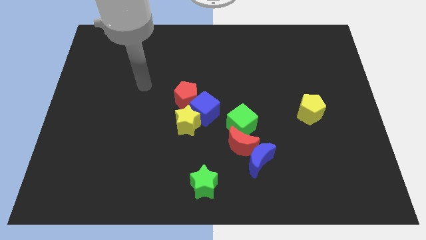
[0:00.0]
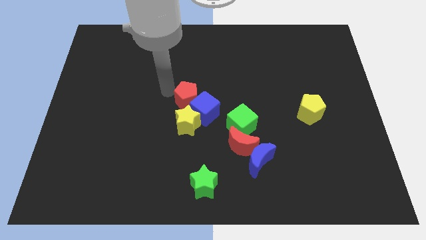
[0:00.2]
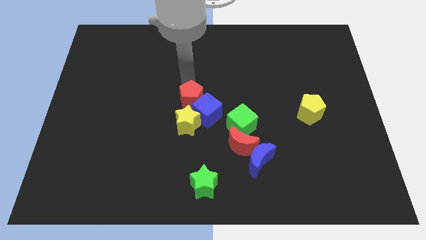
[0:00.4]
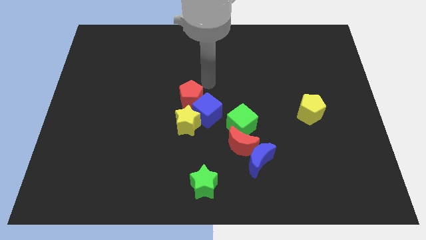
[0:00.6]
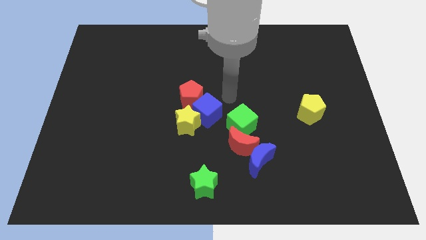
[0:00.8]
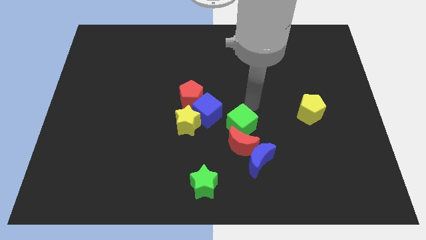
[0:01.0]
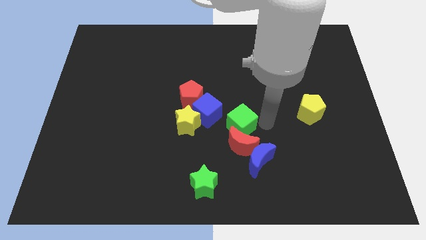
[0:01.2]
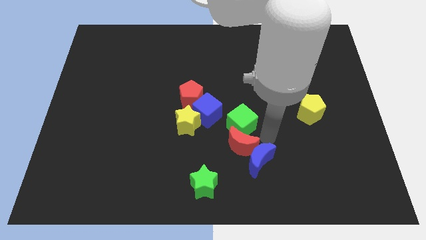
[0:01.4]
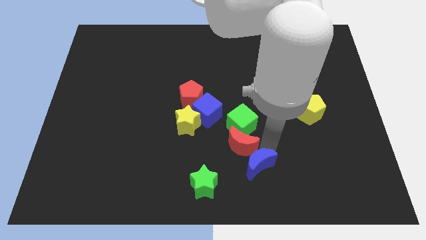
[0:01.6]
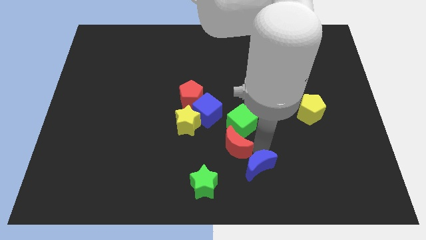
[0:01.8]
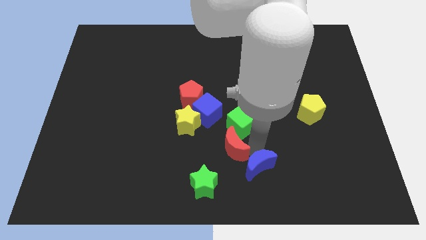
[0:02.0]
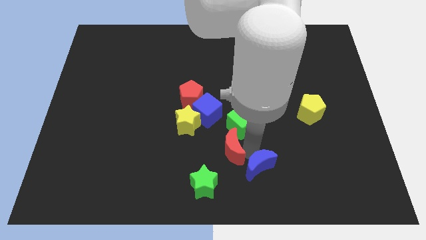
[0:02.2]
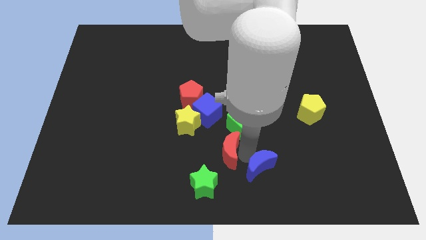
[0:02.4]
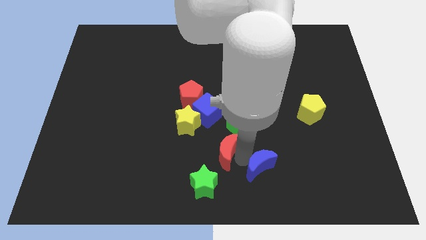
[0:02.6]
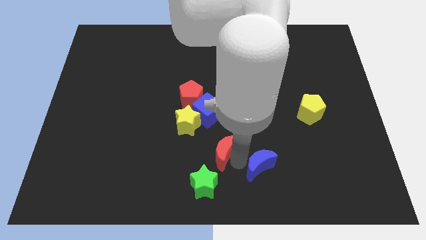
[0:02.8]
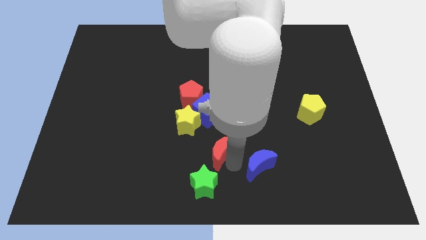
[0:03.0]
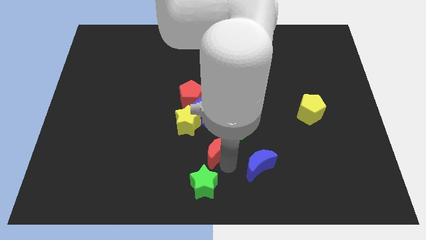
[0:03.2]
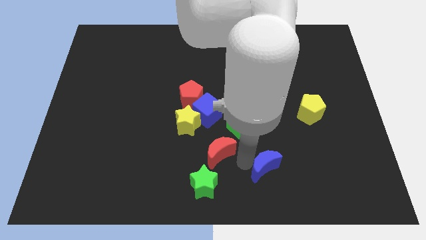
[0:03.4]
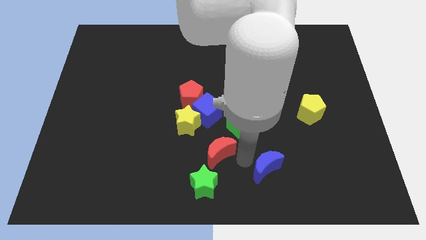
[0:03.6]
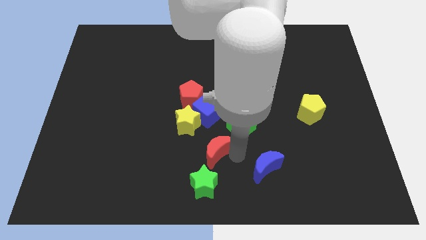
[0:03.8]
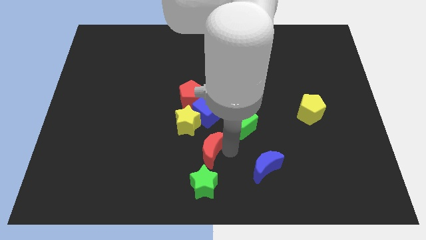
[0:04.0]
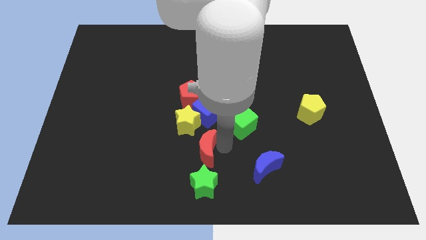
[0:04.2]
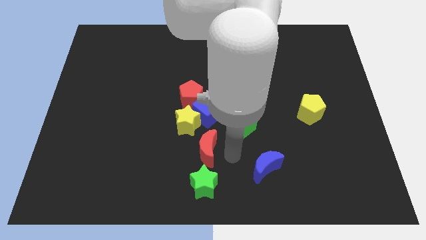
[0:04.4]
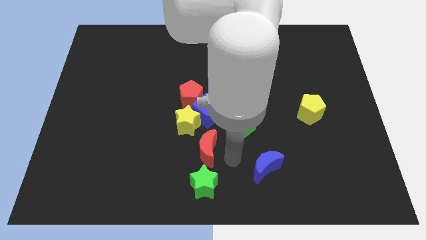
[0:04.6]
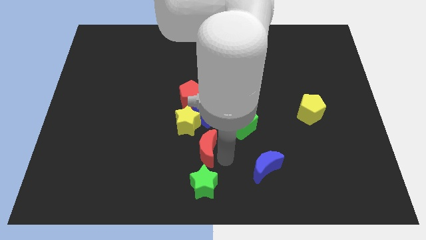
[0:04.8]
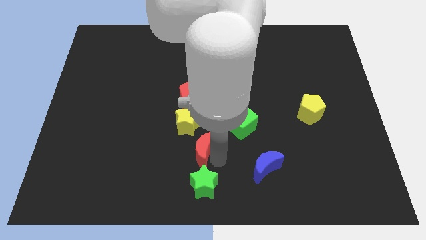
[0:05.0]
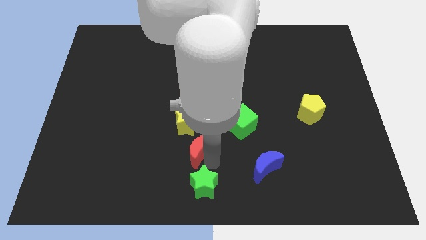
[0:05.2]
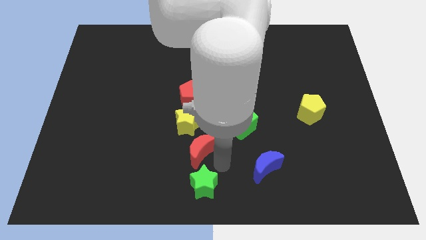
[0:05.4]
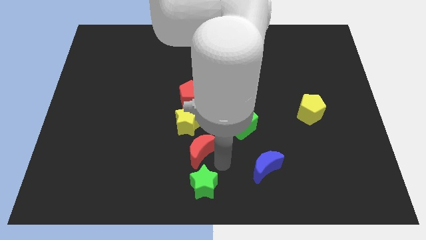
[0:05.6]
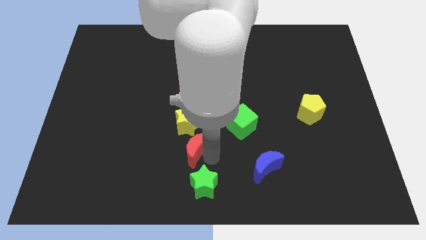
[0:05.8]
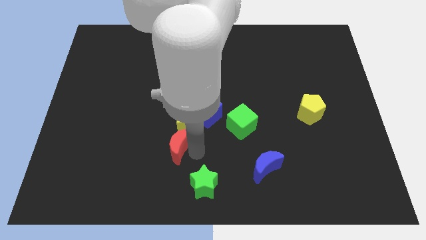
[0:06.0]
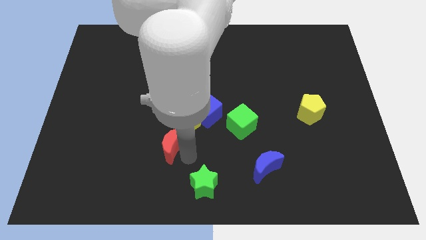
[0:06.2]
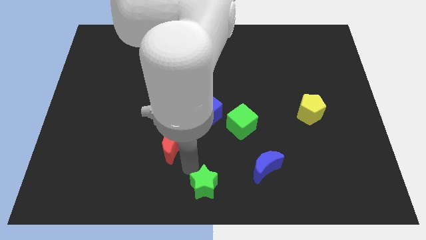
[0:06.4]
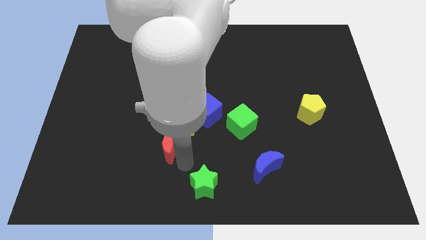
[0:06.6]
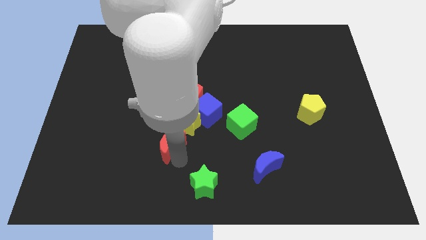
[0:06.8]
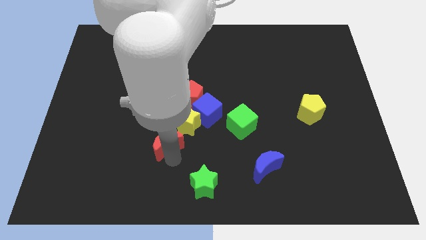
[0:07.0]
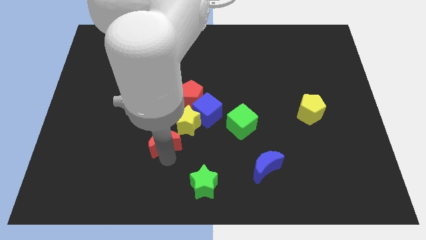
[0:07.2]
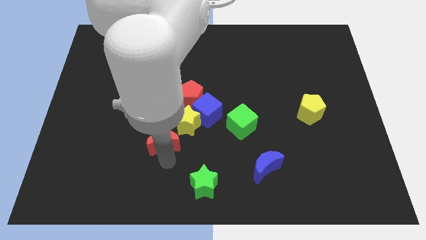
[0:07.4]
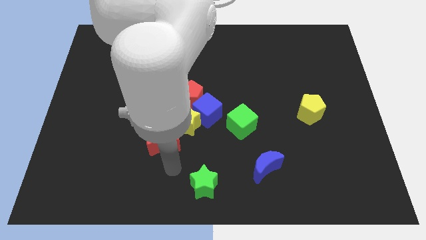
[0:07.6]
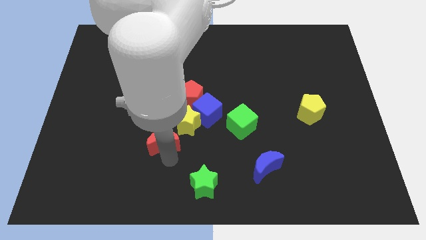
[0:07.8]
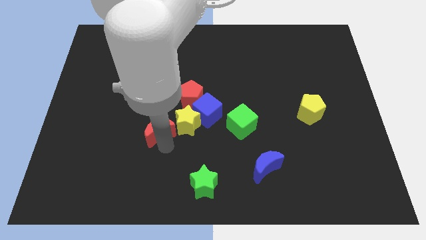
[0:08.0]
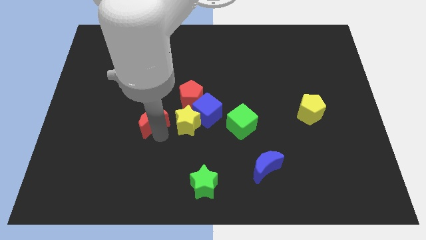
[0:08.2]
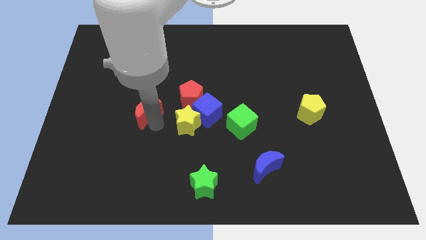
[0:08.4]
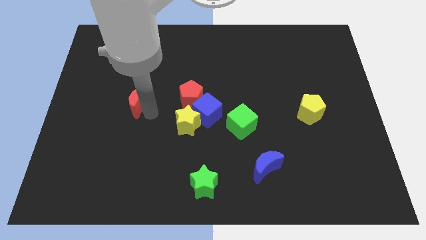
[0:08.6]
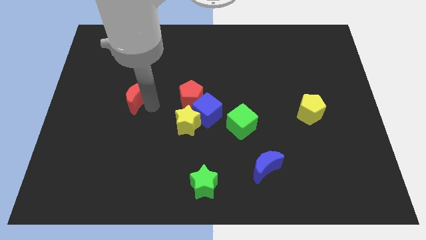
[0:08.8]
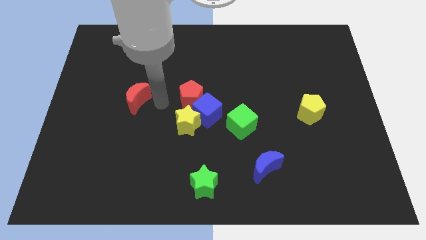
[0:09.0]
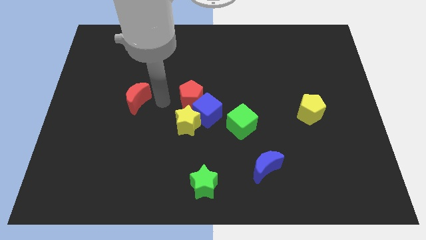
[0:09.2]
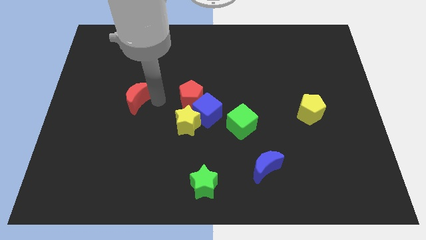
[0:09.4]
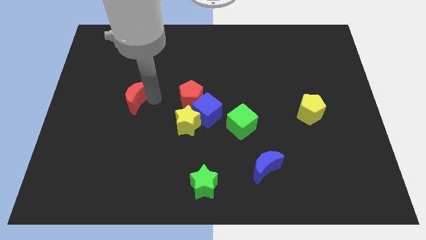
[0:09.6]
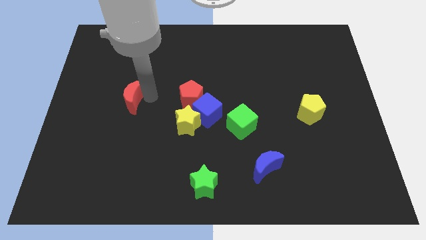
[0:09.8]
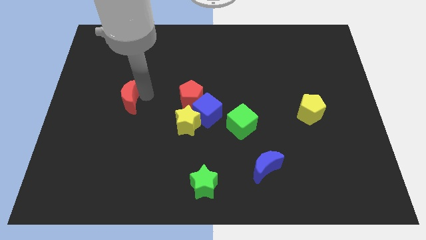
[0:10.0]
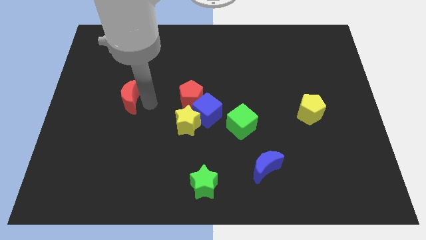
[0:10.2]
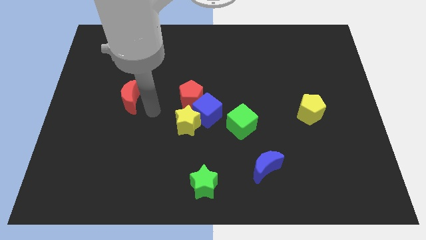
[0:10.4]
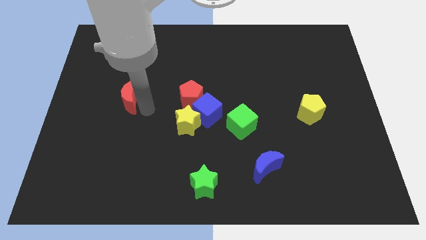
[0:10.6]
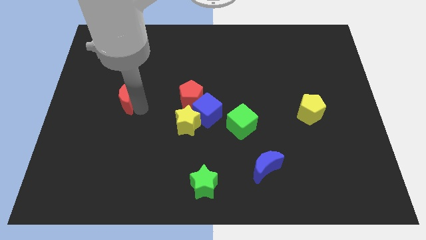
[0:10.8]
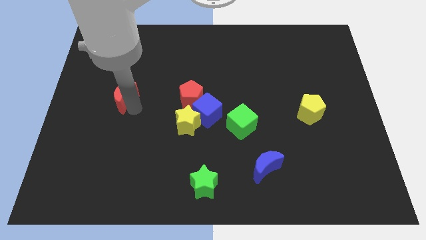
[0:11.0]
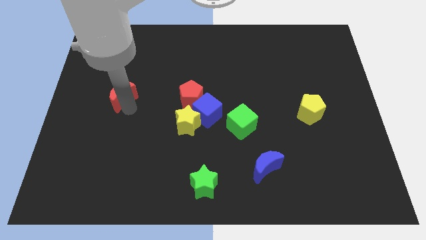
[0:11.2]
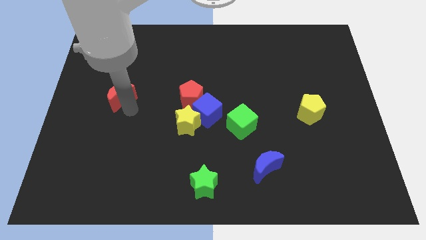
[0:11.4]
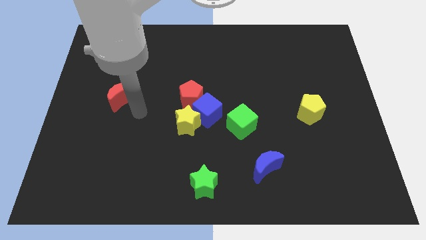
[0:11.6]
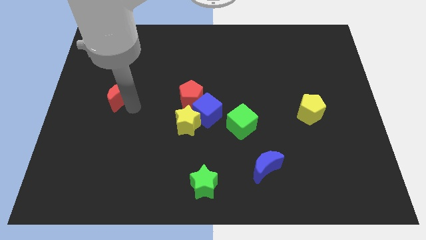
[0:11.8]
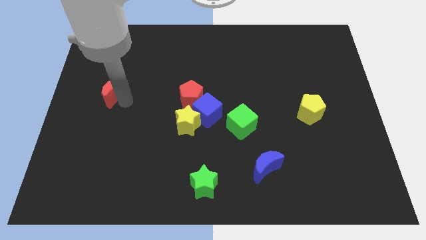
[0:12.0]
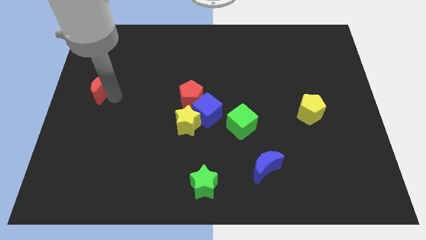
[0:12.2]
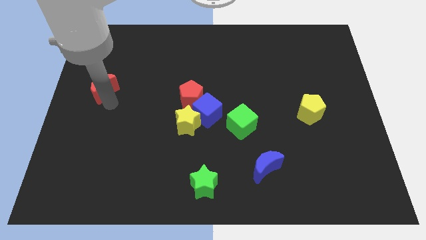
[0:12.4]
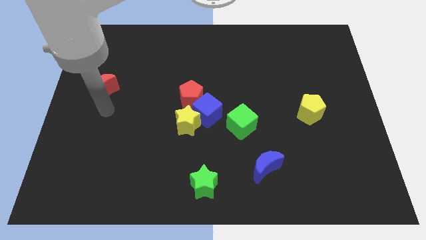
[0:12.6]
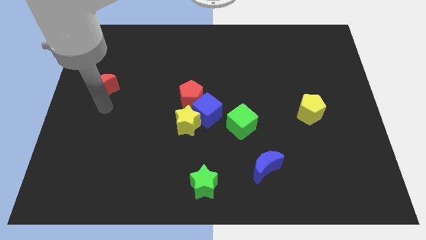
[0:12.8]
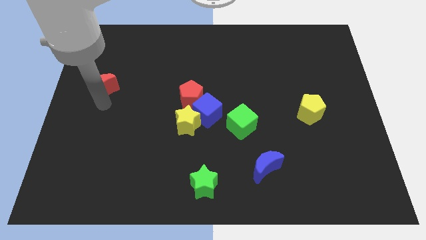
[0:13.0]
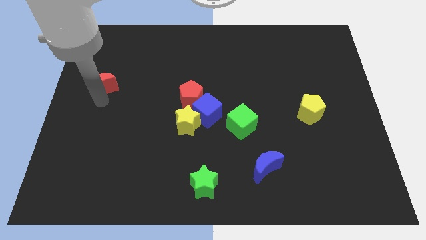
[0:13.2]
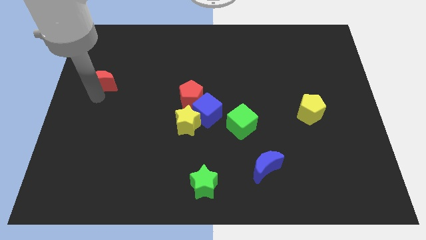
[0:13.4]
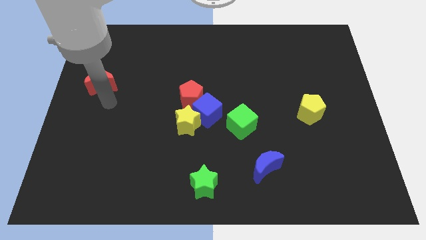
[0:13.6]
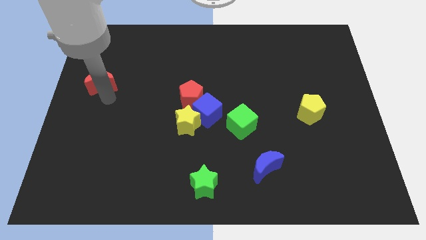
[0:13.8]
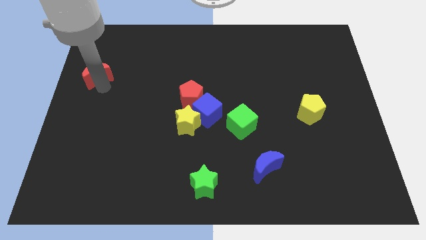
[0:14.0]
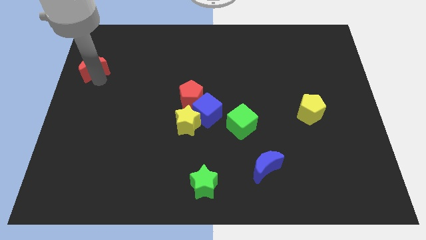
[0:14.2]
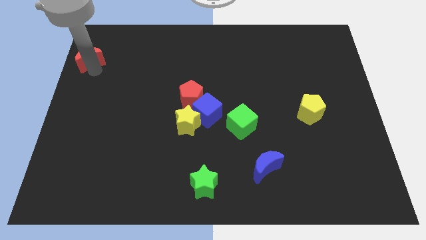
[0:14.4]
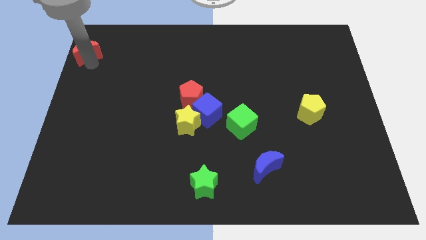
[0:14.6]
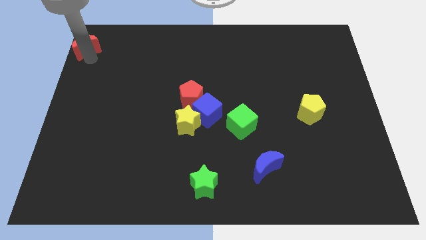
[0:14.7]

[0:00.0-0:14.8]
slide the red moon to the top left corner
